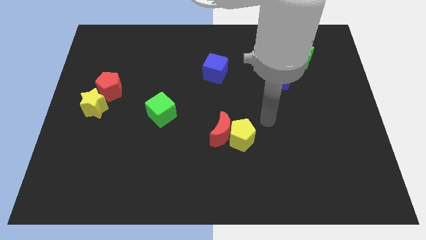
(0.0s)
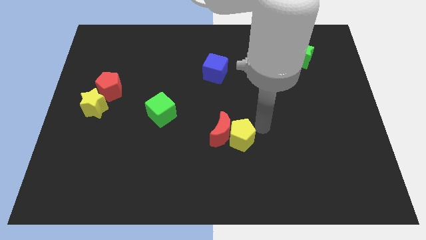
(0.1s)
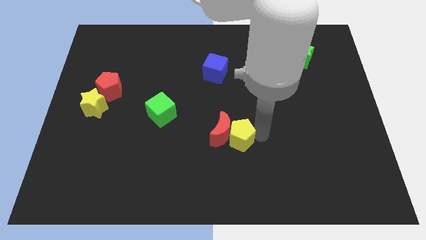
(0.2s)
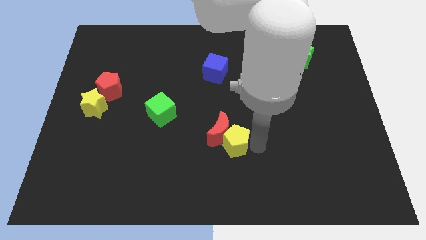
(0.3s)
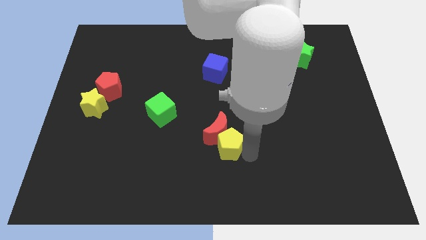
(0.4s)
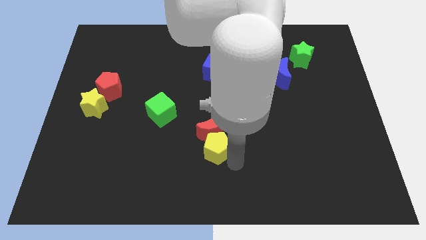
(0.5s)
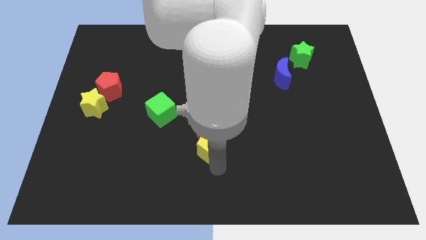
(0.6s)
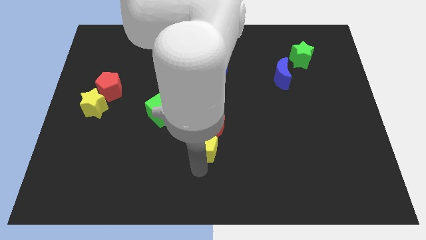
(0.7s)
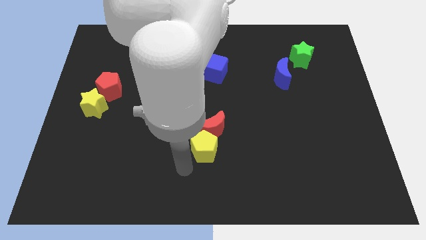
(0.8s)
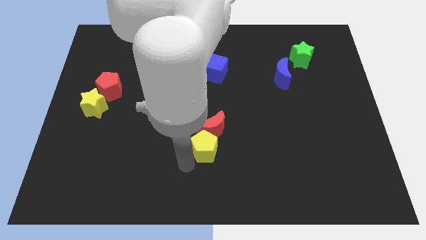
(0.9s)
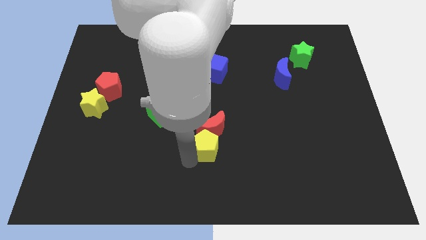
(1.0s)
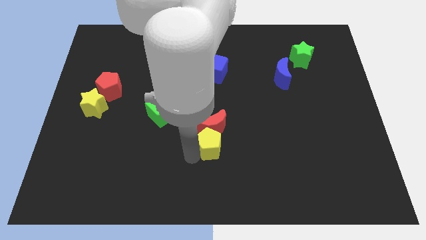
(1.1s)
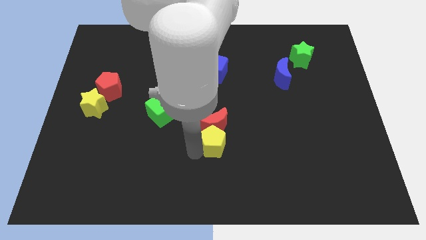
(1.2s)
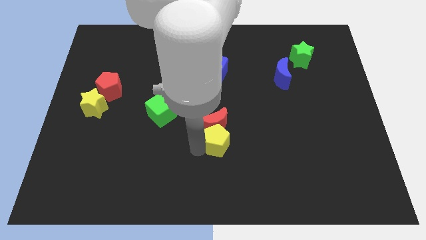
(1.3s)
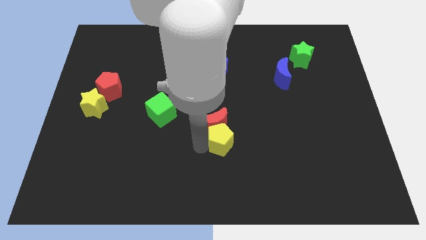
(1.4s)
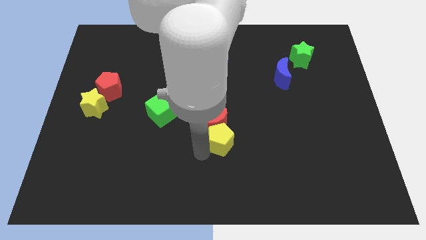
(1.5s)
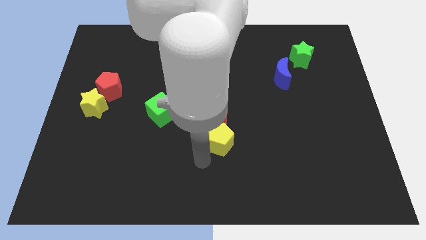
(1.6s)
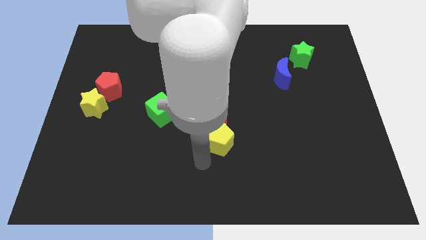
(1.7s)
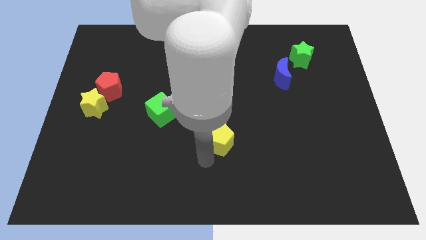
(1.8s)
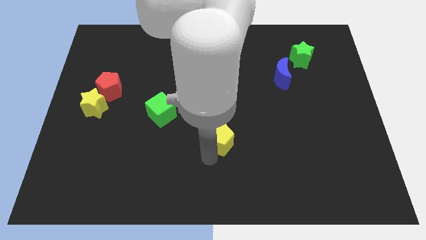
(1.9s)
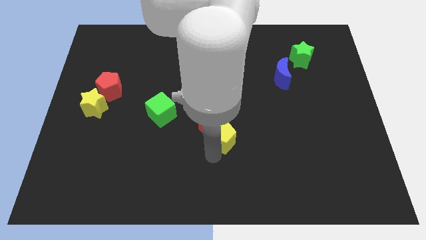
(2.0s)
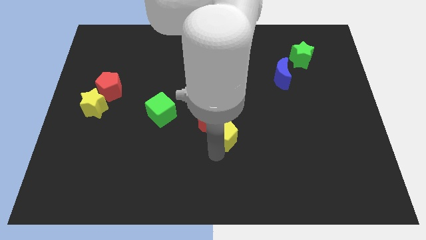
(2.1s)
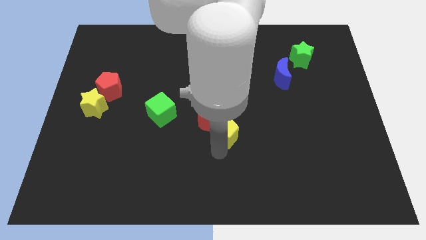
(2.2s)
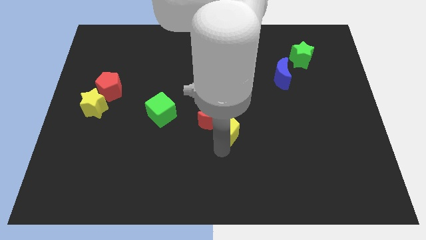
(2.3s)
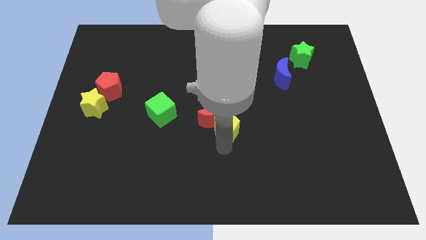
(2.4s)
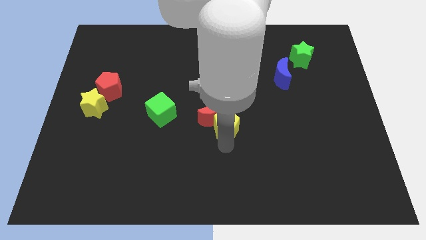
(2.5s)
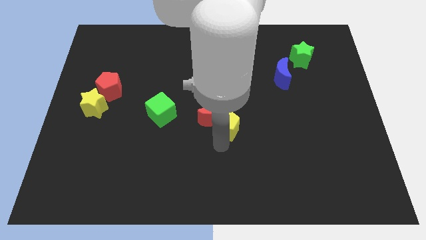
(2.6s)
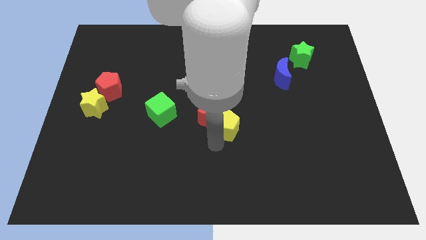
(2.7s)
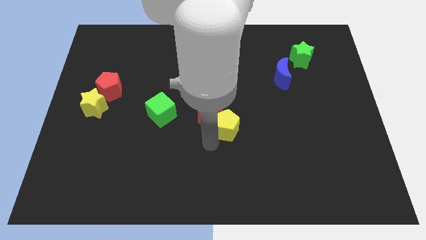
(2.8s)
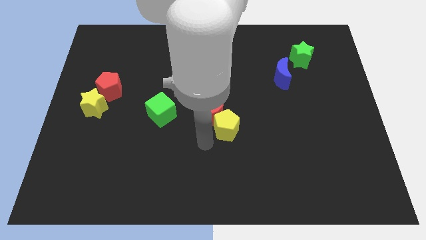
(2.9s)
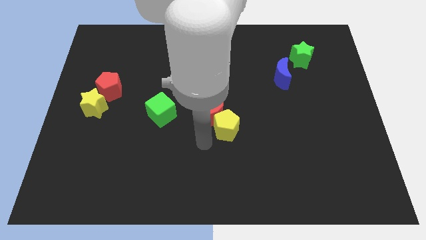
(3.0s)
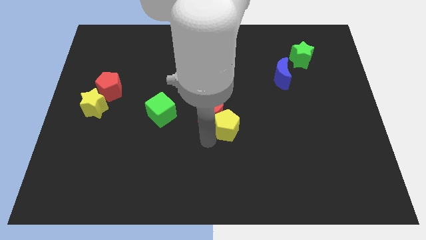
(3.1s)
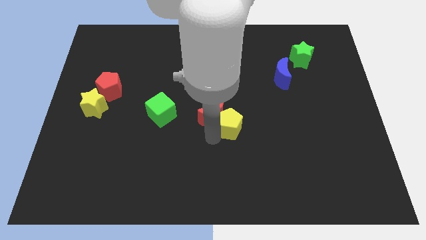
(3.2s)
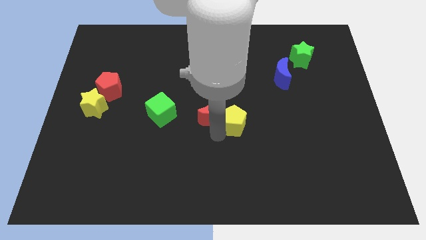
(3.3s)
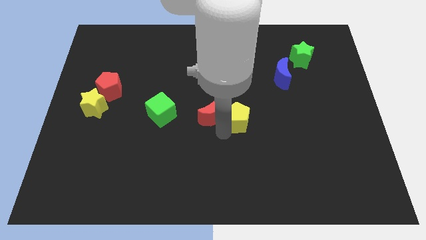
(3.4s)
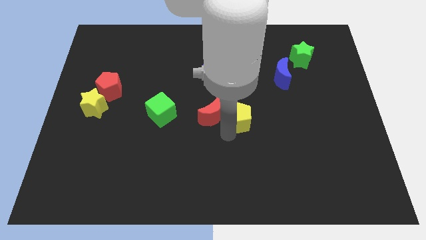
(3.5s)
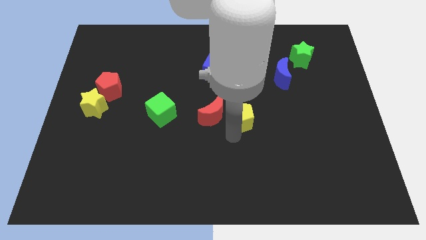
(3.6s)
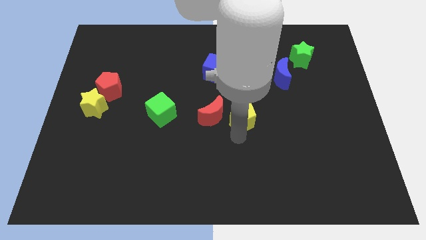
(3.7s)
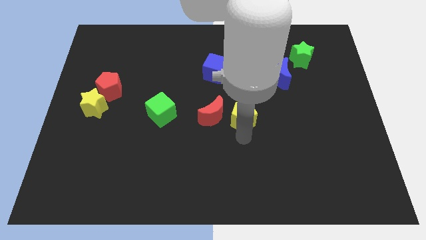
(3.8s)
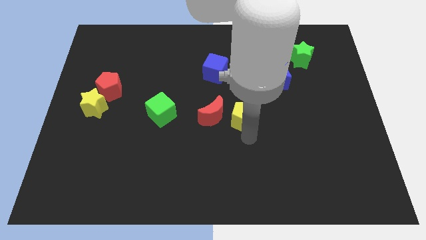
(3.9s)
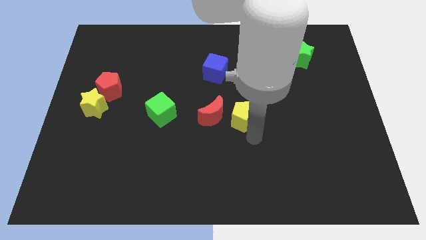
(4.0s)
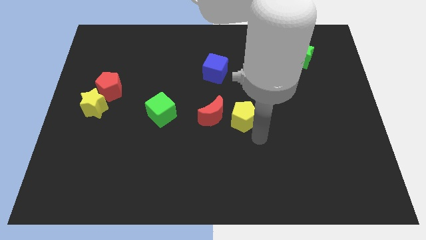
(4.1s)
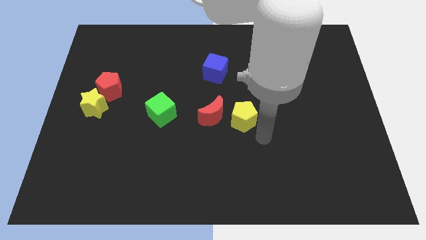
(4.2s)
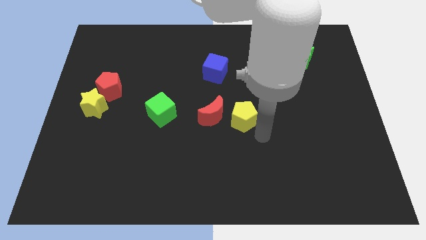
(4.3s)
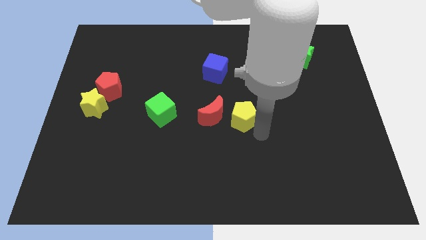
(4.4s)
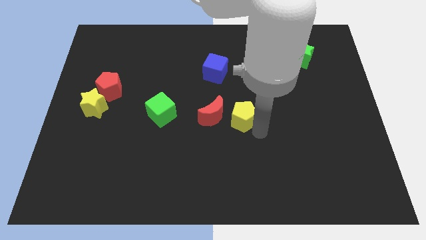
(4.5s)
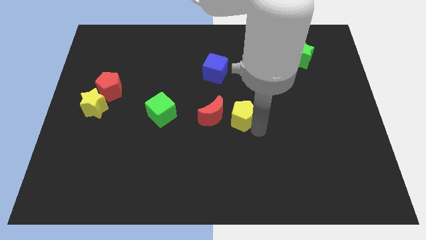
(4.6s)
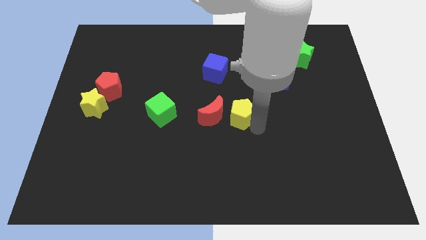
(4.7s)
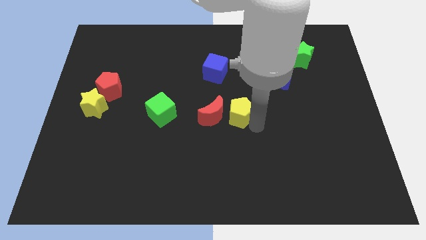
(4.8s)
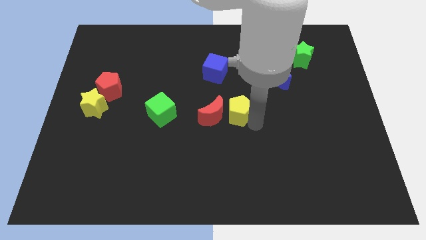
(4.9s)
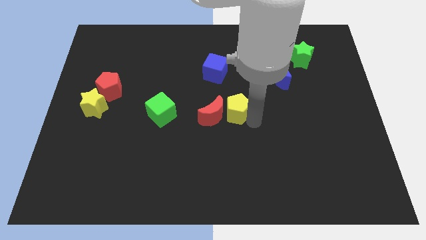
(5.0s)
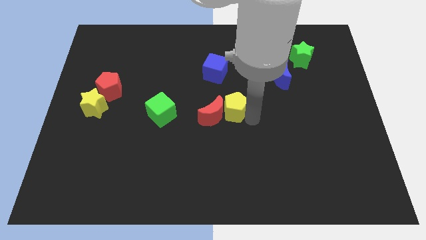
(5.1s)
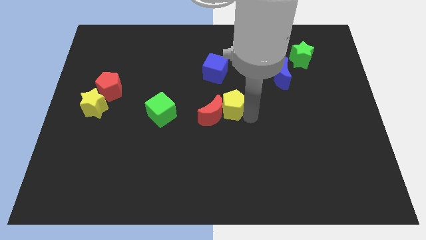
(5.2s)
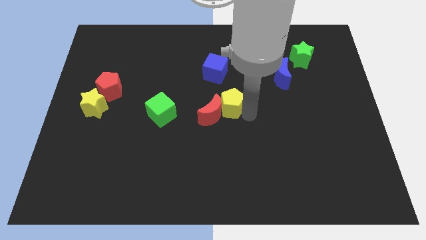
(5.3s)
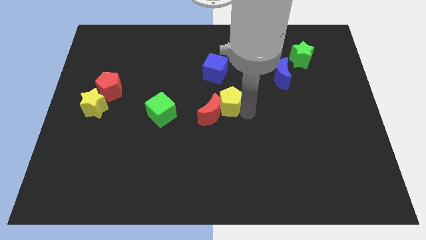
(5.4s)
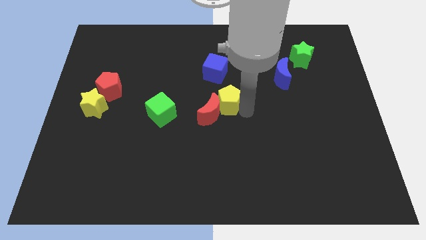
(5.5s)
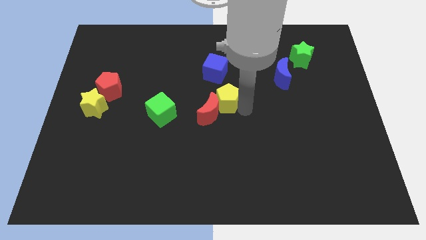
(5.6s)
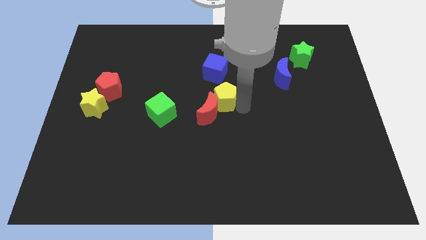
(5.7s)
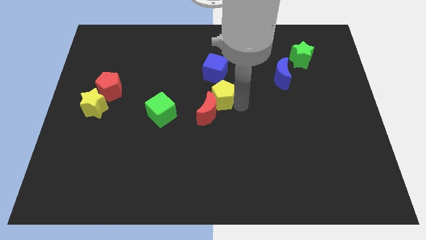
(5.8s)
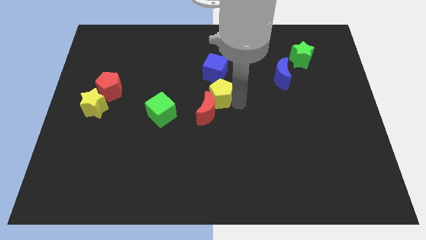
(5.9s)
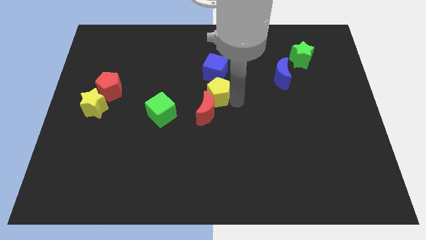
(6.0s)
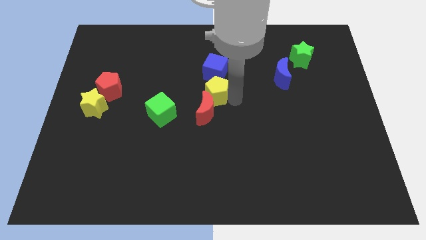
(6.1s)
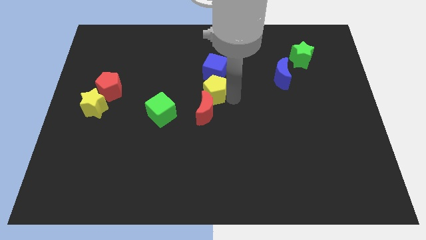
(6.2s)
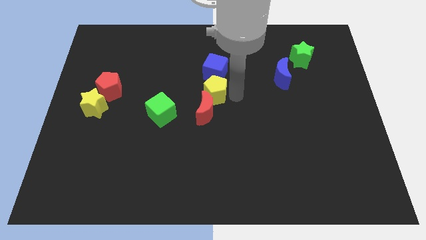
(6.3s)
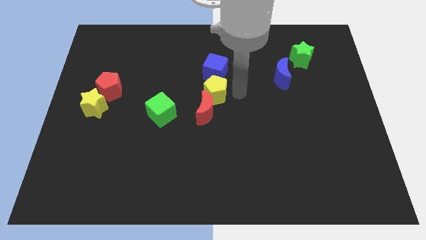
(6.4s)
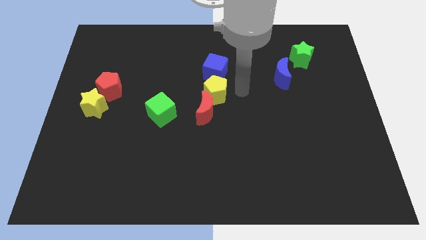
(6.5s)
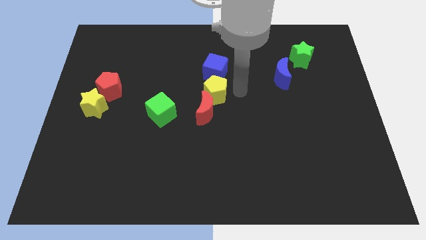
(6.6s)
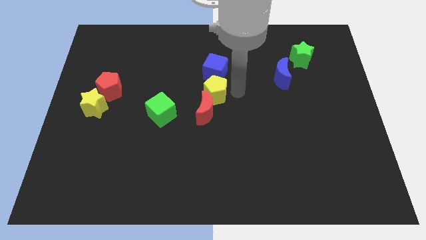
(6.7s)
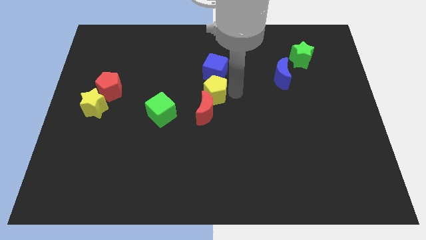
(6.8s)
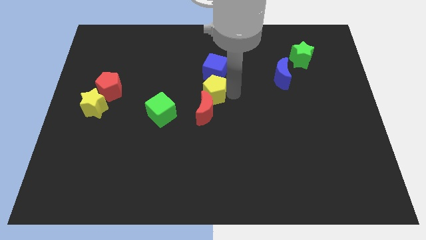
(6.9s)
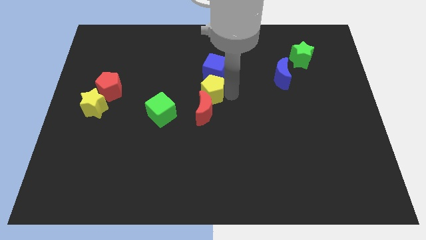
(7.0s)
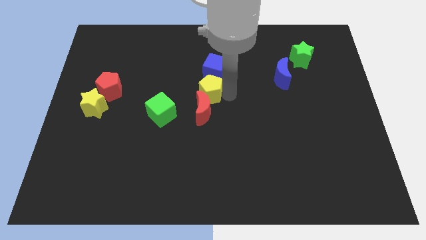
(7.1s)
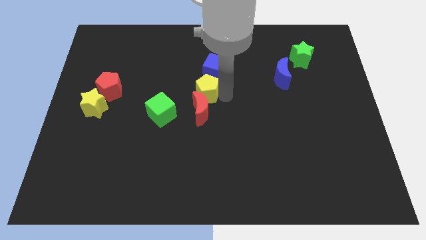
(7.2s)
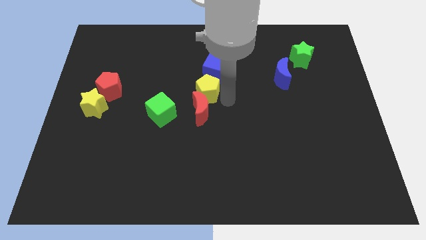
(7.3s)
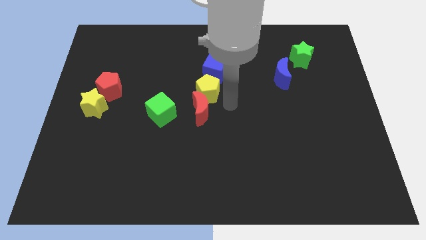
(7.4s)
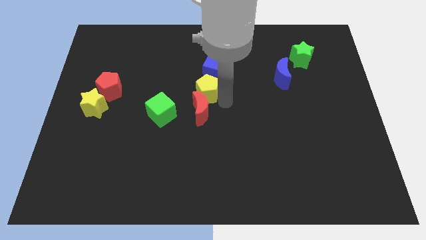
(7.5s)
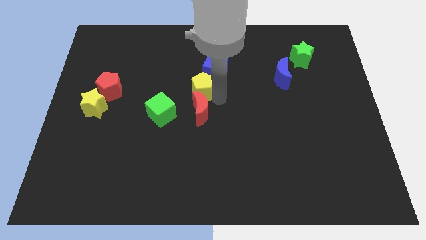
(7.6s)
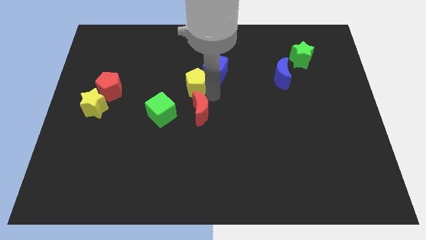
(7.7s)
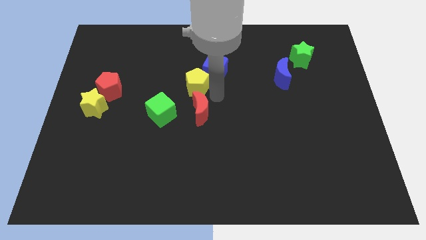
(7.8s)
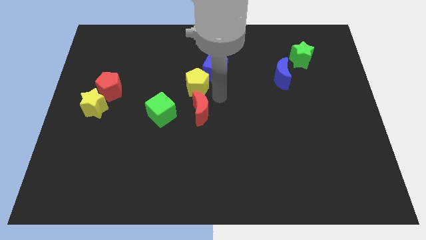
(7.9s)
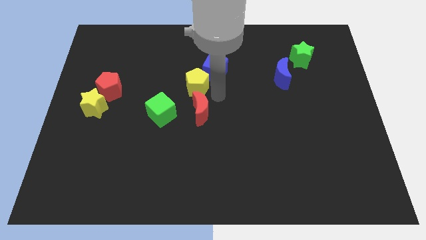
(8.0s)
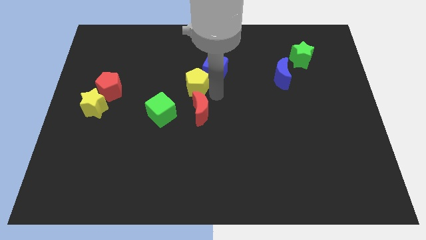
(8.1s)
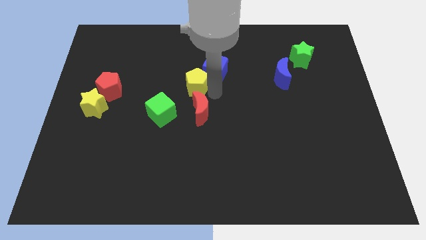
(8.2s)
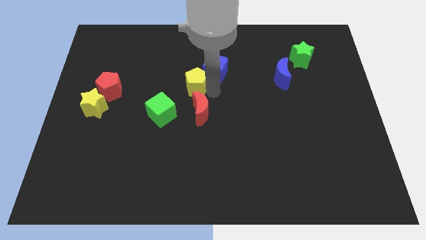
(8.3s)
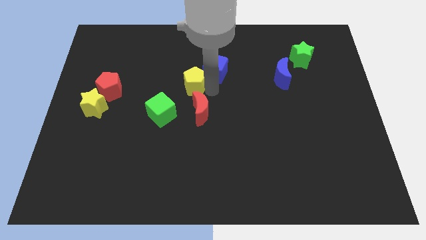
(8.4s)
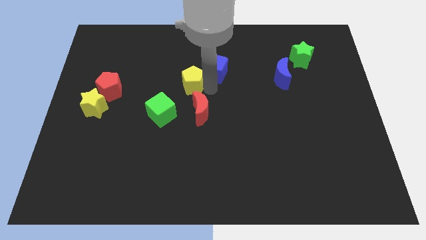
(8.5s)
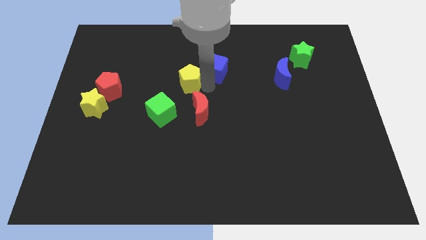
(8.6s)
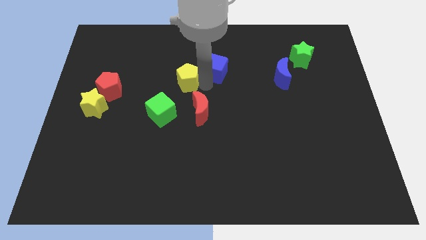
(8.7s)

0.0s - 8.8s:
push the yellow pentagon up and left diagonally
